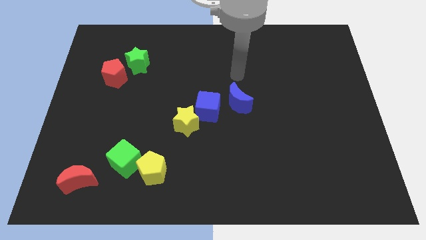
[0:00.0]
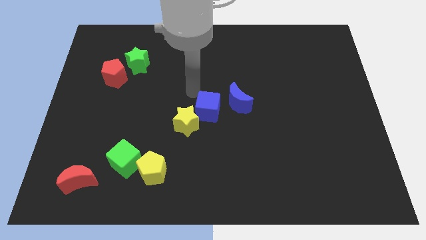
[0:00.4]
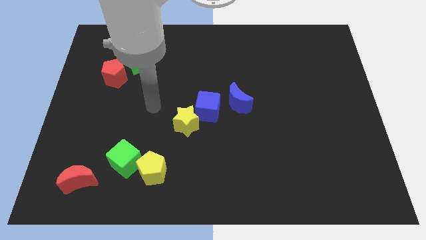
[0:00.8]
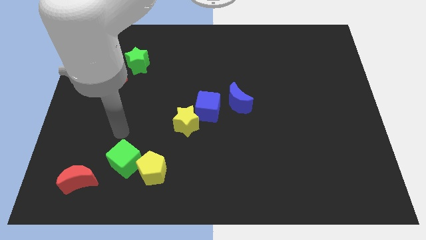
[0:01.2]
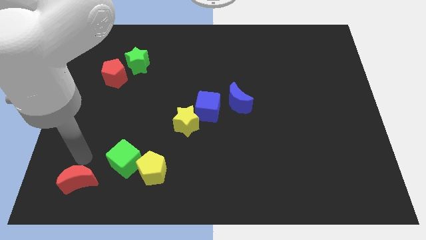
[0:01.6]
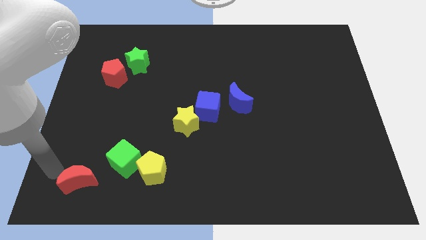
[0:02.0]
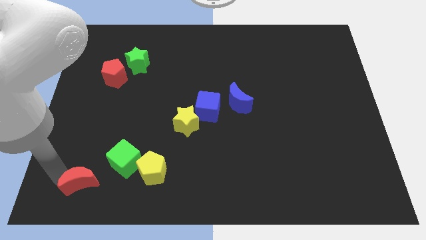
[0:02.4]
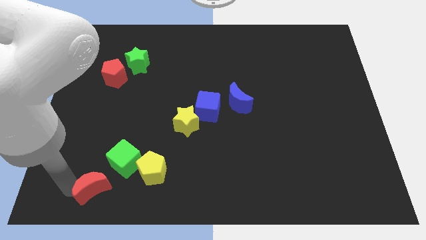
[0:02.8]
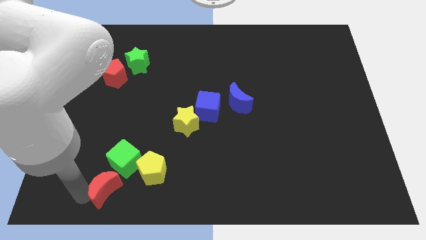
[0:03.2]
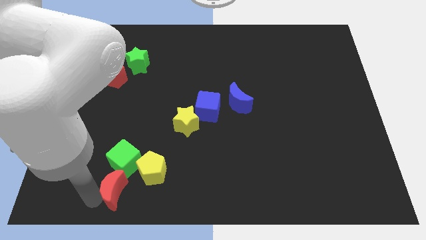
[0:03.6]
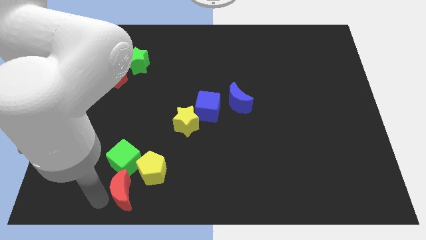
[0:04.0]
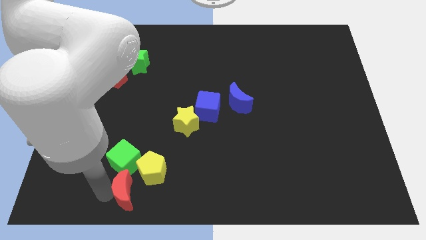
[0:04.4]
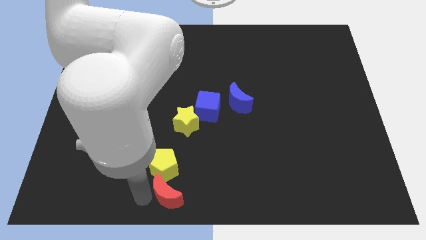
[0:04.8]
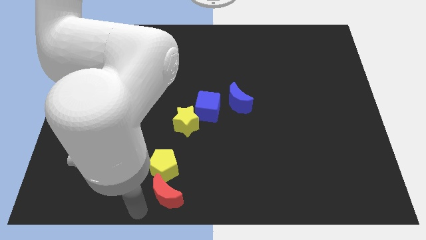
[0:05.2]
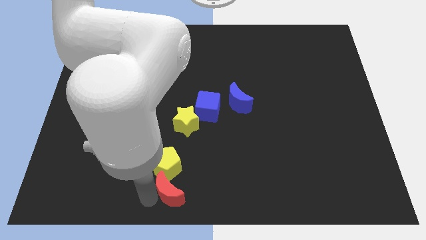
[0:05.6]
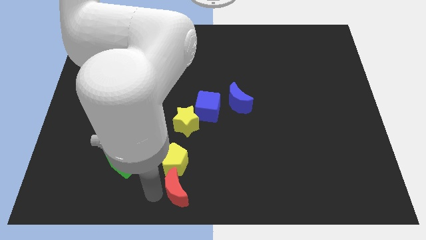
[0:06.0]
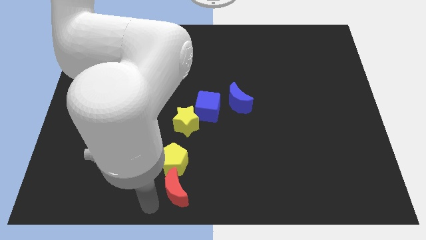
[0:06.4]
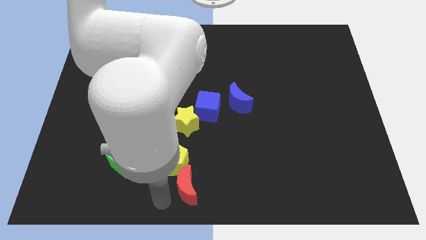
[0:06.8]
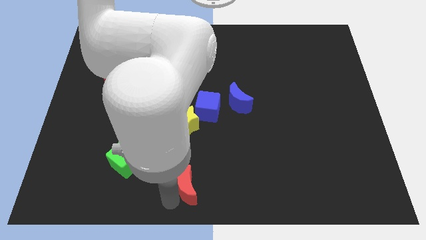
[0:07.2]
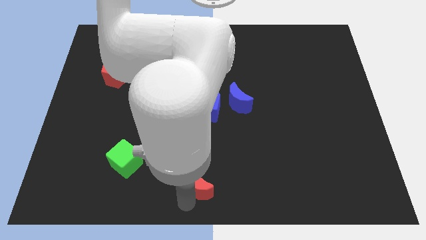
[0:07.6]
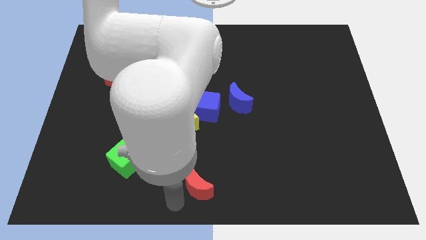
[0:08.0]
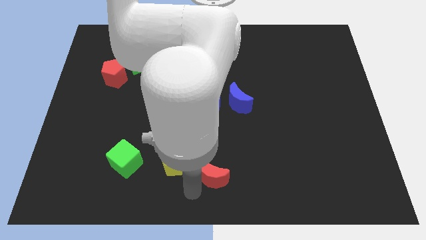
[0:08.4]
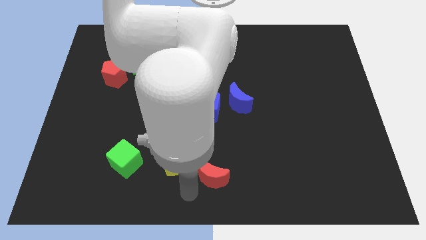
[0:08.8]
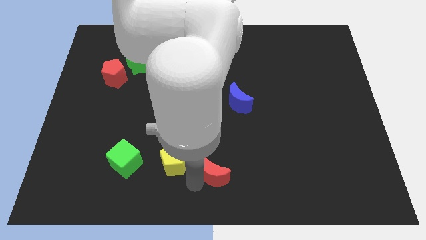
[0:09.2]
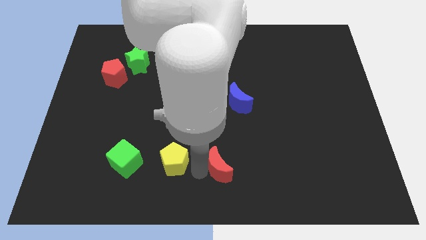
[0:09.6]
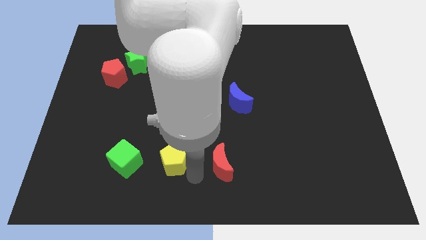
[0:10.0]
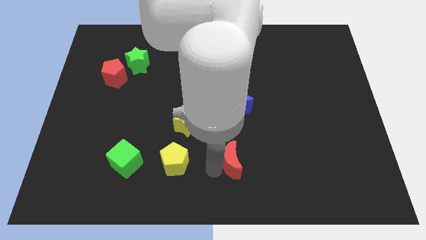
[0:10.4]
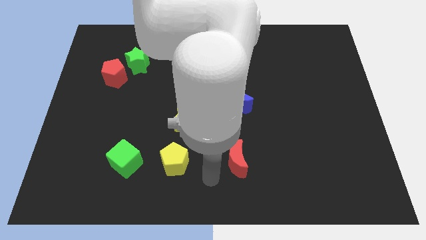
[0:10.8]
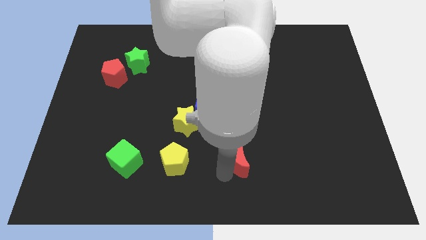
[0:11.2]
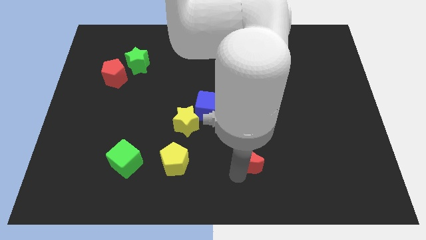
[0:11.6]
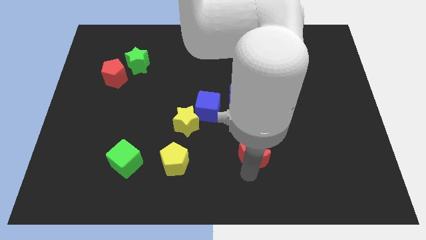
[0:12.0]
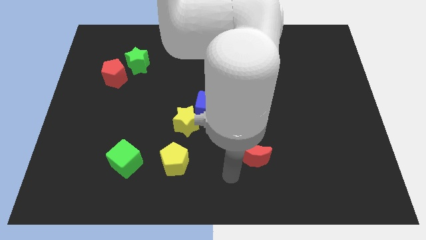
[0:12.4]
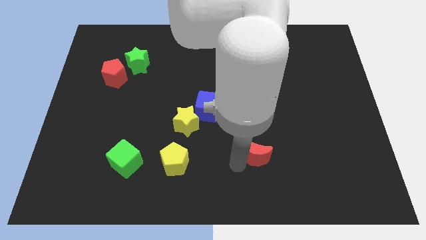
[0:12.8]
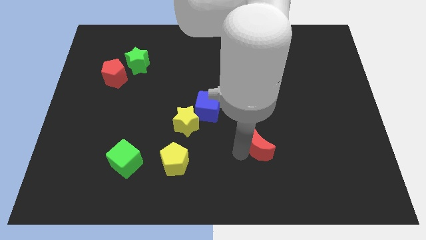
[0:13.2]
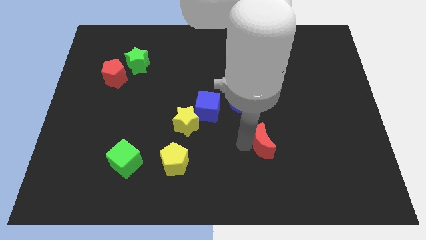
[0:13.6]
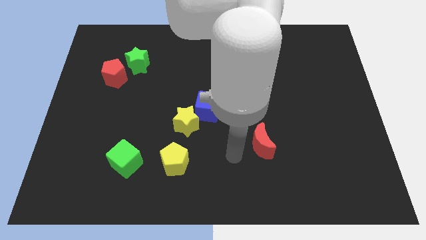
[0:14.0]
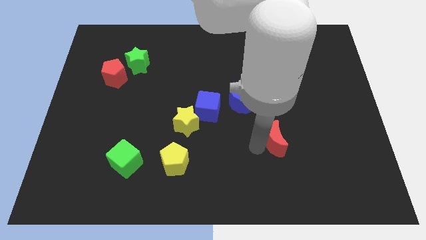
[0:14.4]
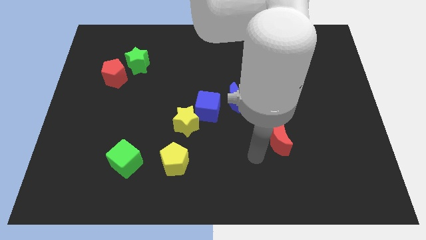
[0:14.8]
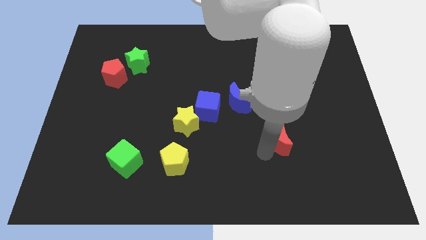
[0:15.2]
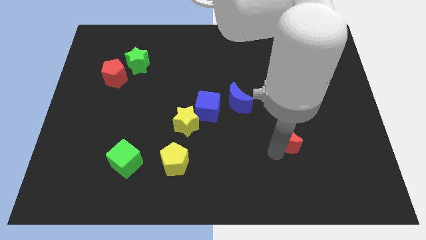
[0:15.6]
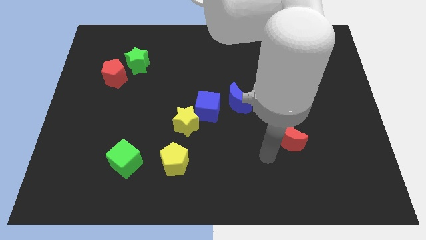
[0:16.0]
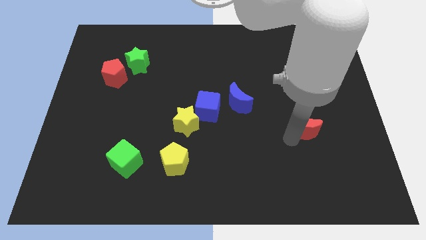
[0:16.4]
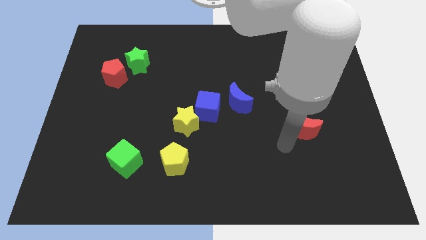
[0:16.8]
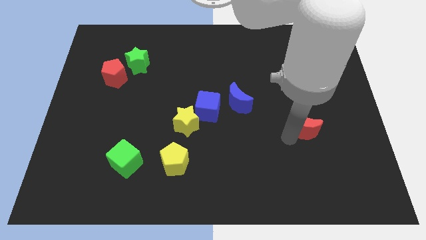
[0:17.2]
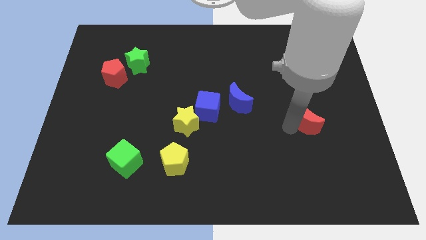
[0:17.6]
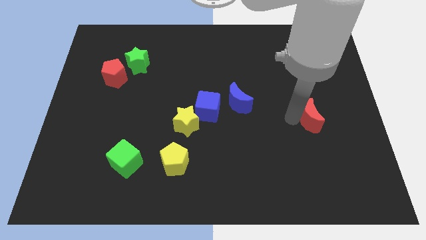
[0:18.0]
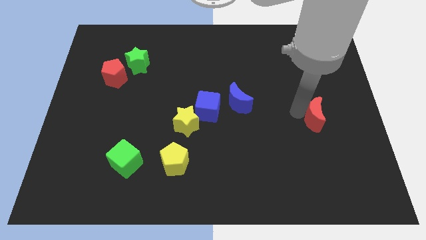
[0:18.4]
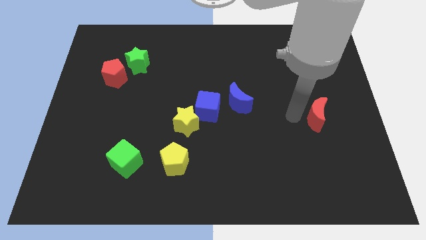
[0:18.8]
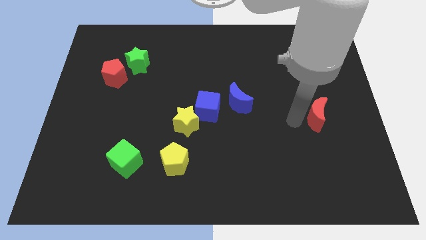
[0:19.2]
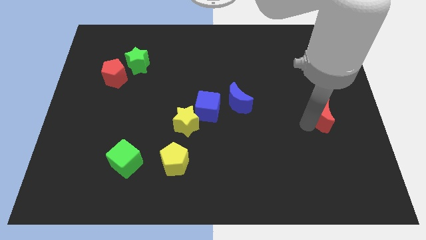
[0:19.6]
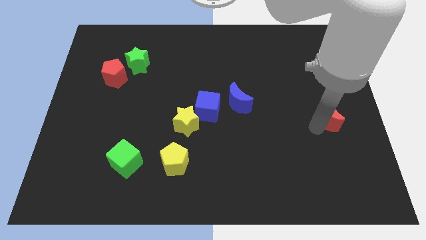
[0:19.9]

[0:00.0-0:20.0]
put the red moon to the right side

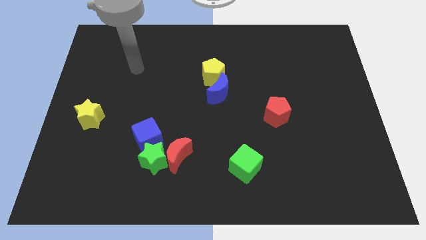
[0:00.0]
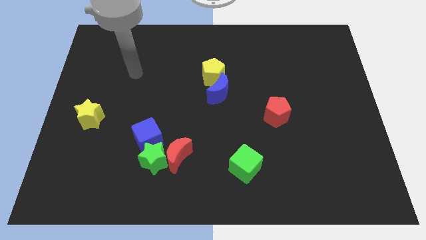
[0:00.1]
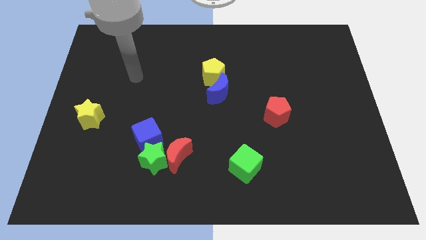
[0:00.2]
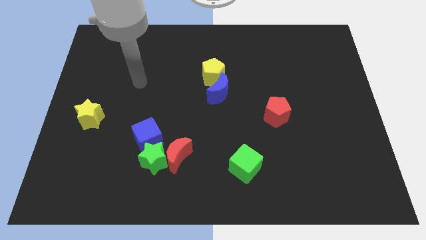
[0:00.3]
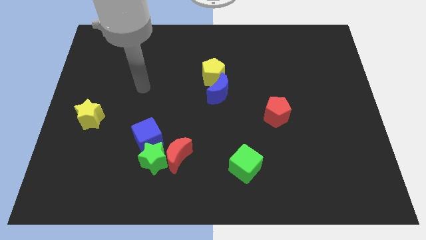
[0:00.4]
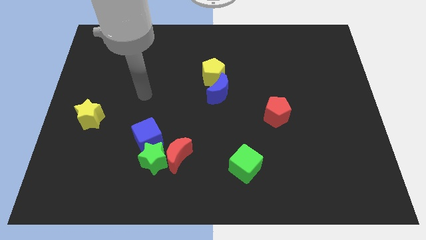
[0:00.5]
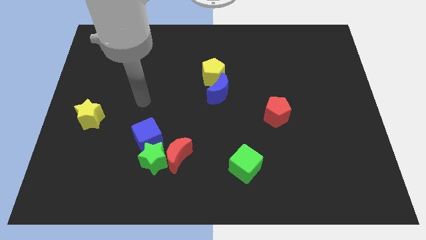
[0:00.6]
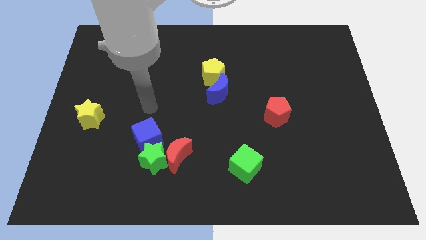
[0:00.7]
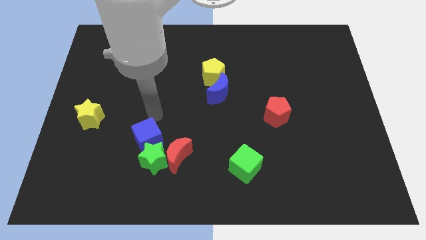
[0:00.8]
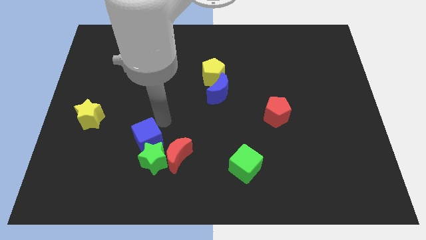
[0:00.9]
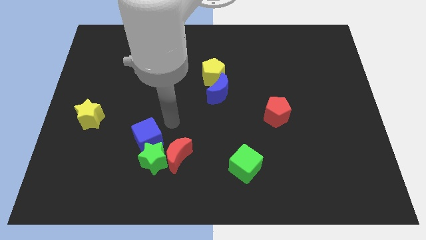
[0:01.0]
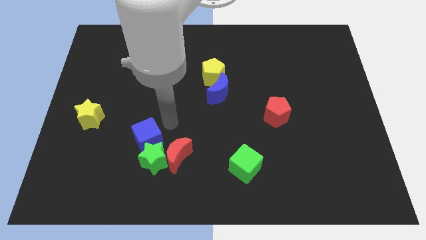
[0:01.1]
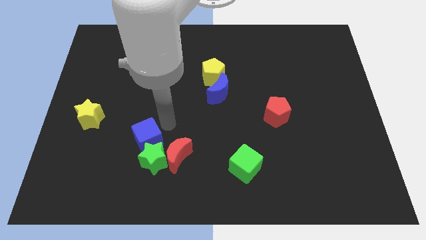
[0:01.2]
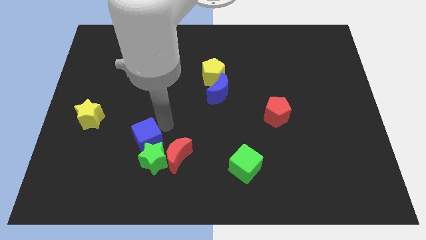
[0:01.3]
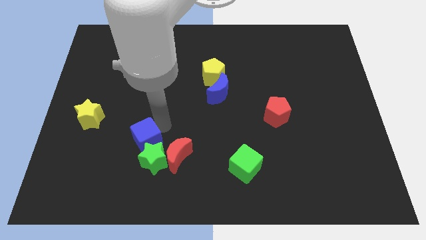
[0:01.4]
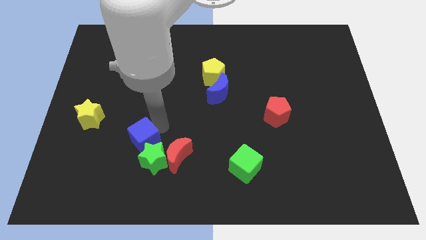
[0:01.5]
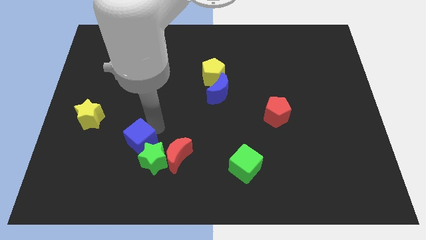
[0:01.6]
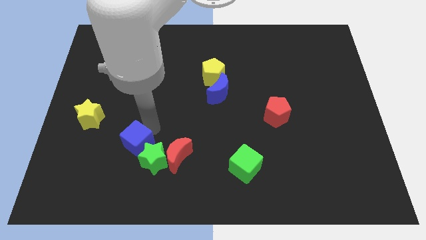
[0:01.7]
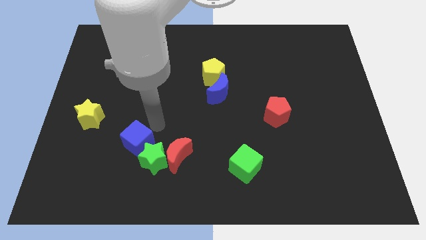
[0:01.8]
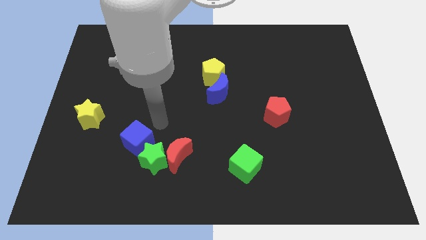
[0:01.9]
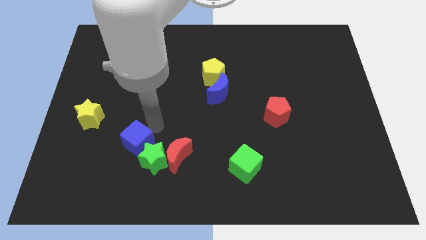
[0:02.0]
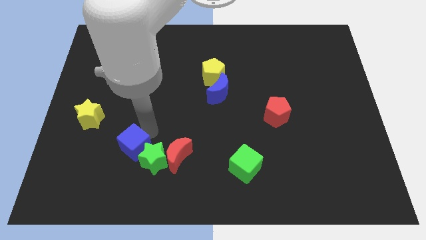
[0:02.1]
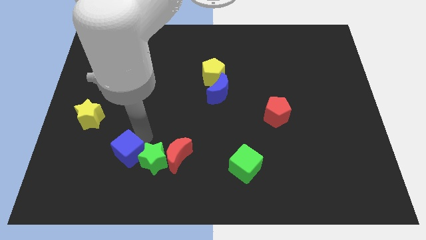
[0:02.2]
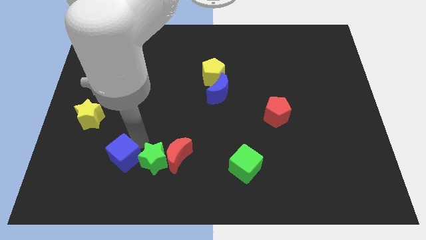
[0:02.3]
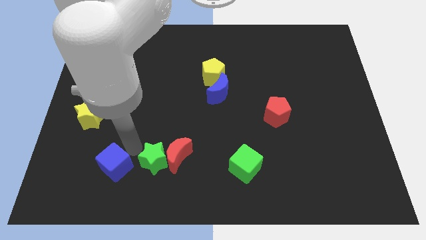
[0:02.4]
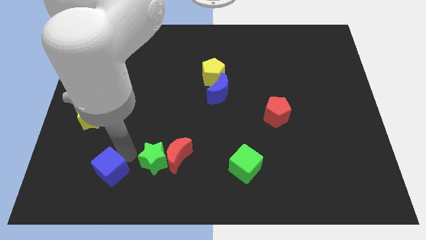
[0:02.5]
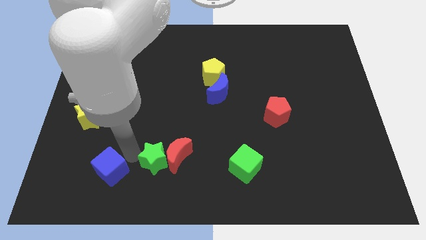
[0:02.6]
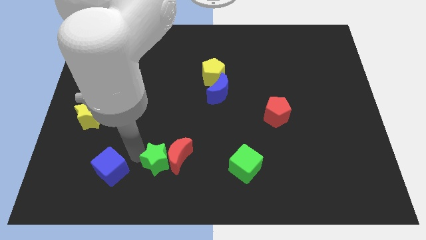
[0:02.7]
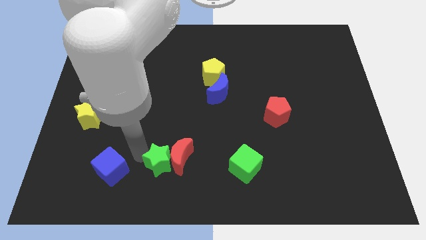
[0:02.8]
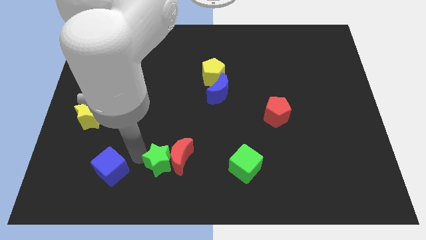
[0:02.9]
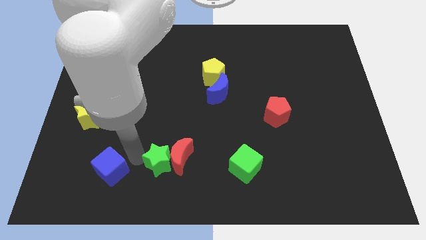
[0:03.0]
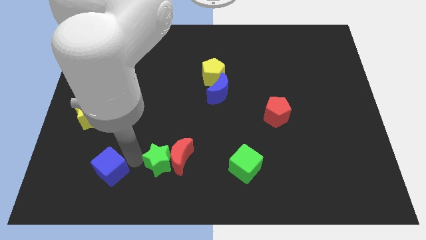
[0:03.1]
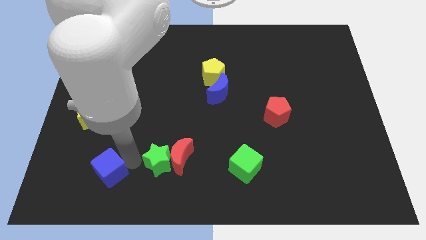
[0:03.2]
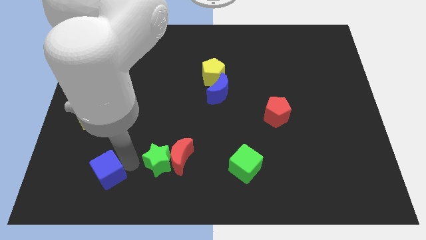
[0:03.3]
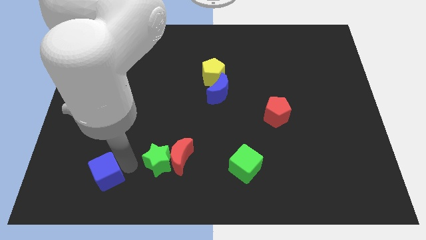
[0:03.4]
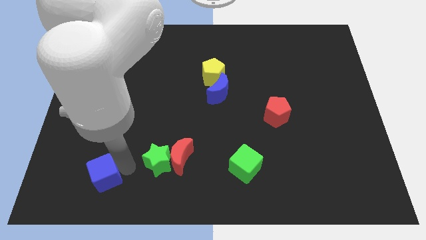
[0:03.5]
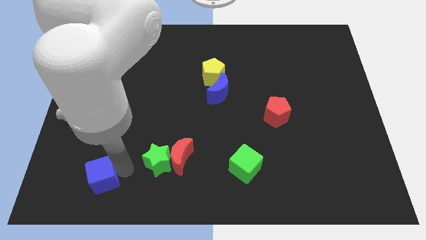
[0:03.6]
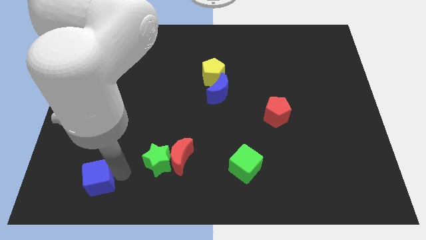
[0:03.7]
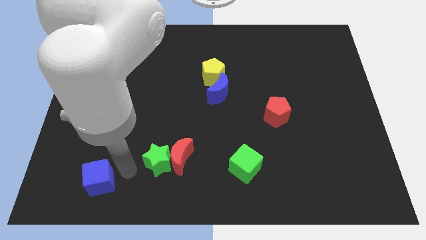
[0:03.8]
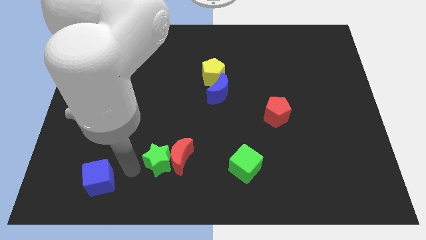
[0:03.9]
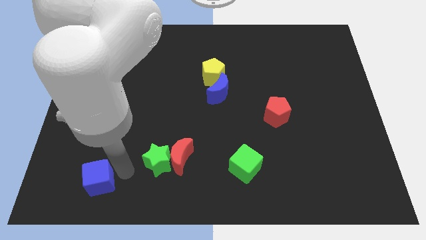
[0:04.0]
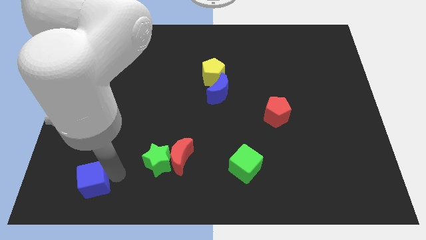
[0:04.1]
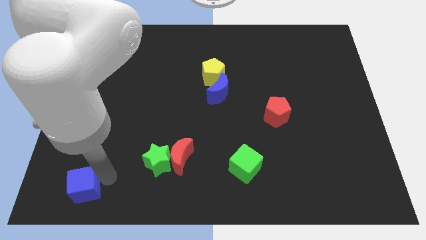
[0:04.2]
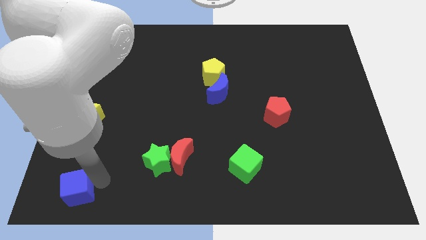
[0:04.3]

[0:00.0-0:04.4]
slide the blue cube to the bottom left corner
